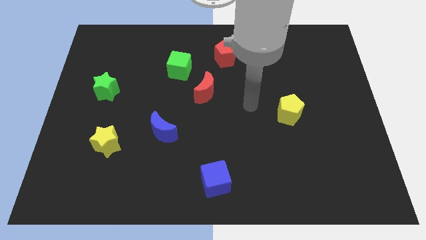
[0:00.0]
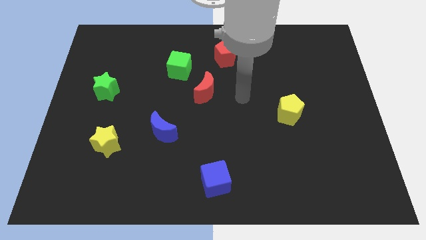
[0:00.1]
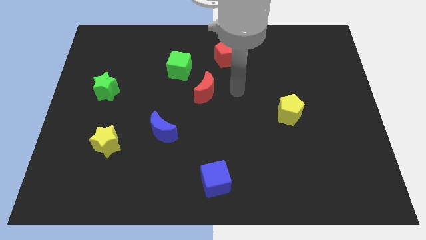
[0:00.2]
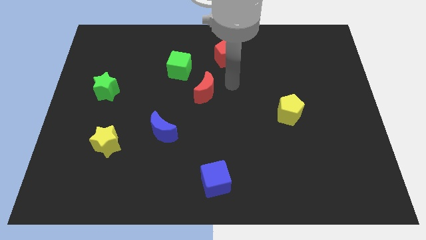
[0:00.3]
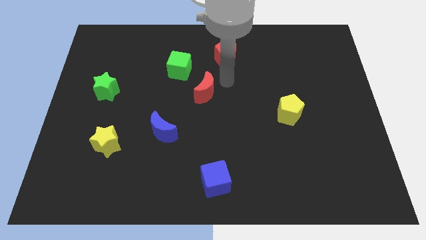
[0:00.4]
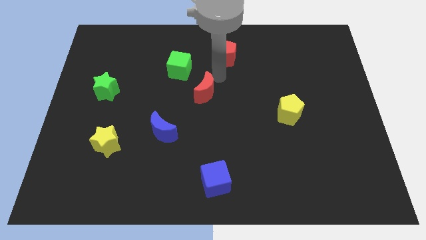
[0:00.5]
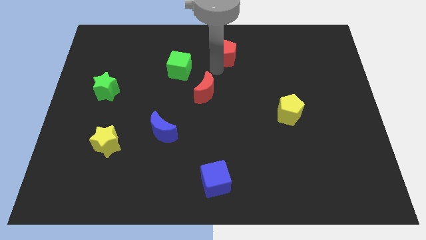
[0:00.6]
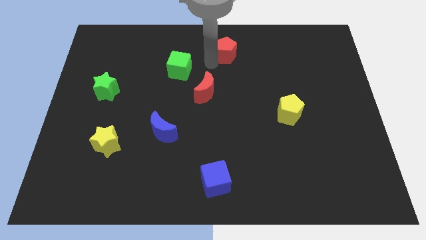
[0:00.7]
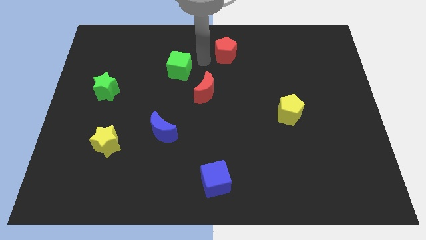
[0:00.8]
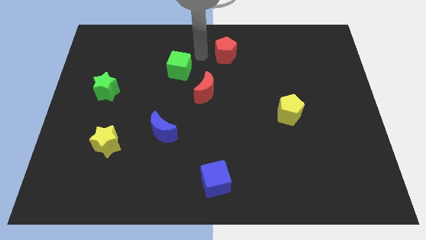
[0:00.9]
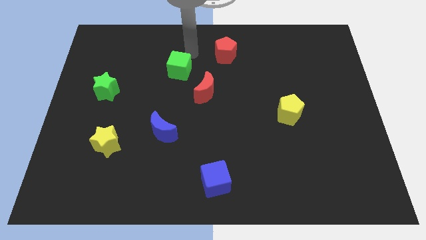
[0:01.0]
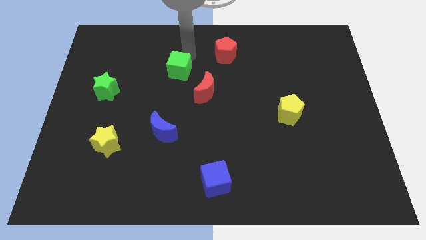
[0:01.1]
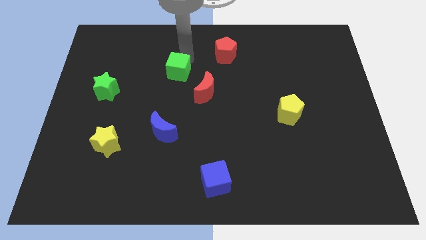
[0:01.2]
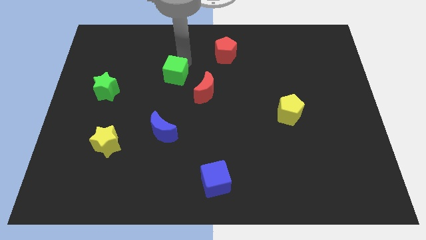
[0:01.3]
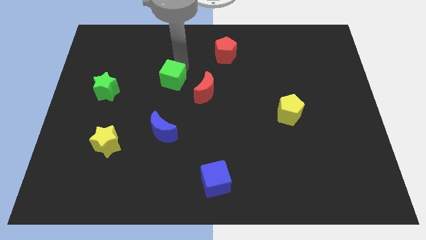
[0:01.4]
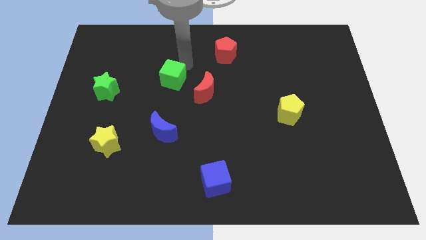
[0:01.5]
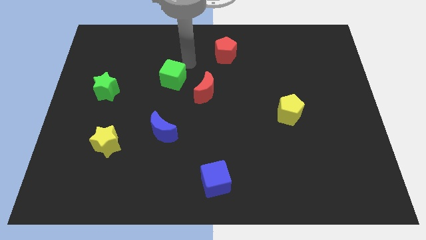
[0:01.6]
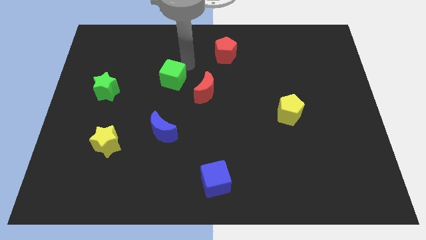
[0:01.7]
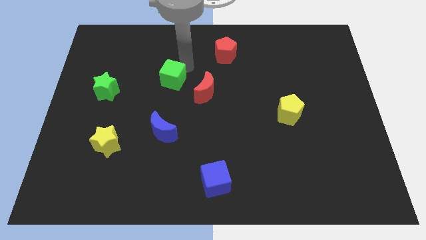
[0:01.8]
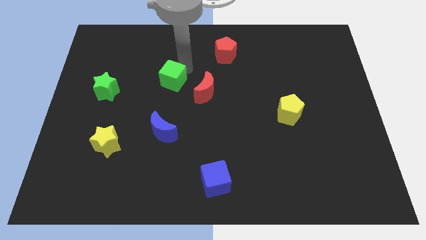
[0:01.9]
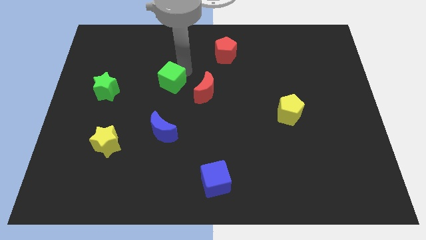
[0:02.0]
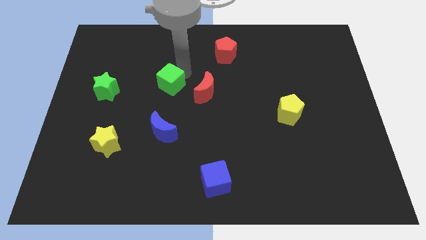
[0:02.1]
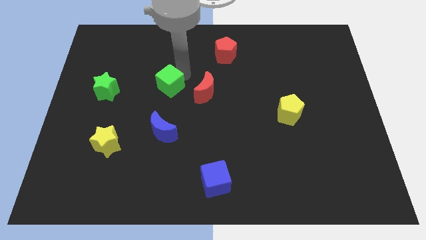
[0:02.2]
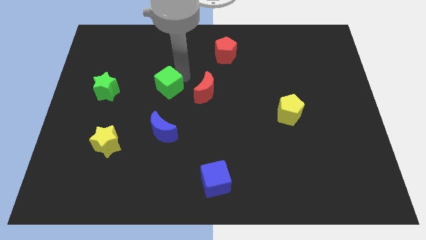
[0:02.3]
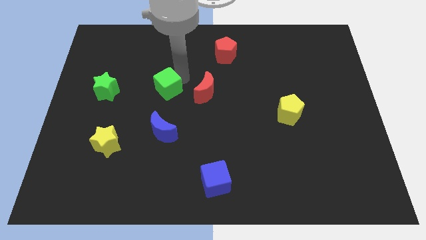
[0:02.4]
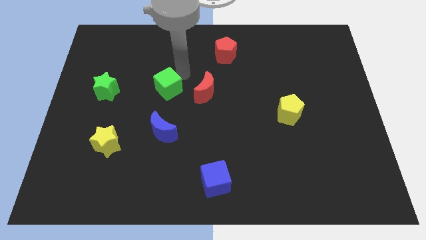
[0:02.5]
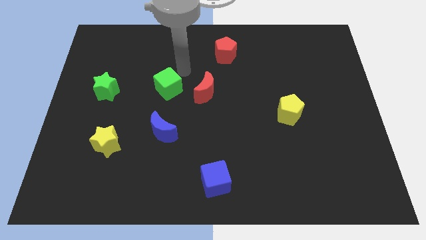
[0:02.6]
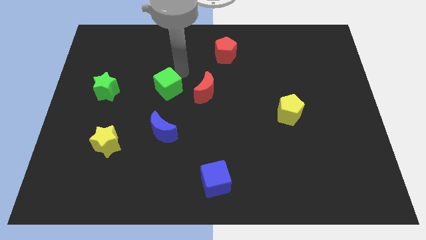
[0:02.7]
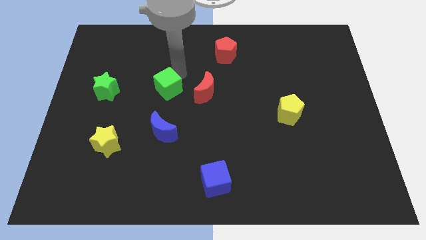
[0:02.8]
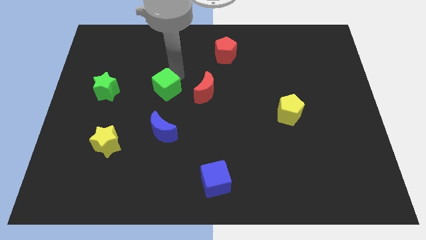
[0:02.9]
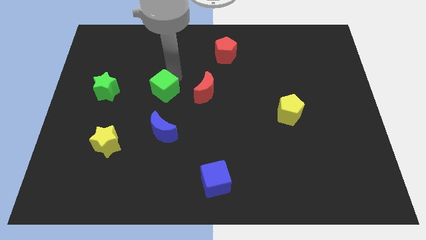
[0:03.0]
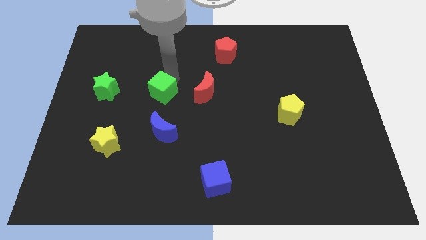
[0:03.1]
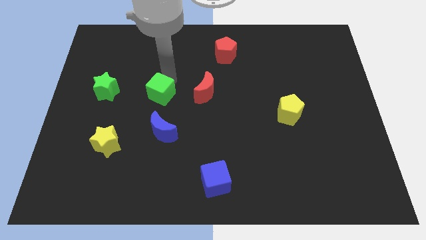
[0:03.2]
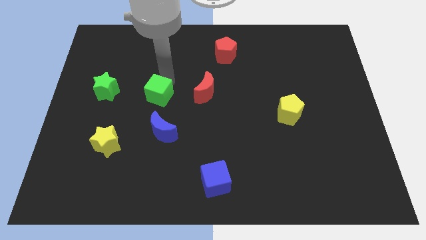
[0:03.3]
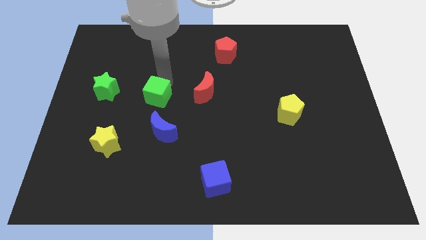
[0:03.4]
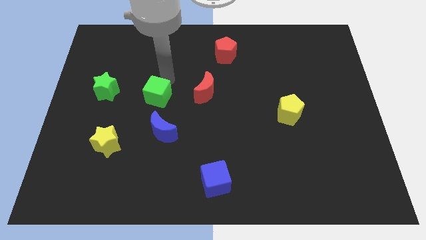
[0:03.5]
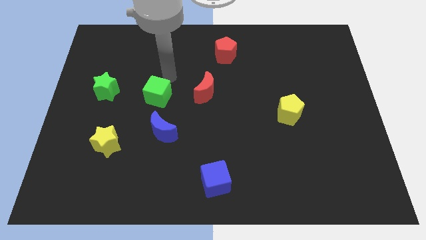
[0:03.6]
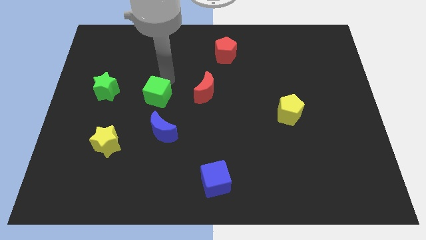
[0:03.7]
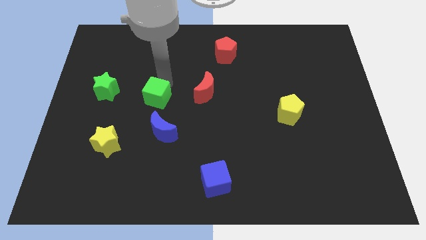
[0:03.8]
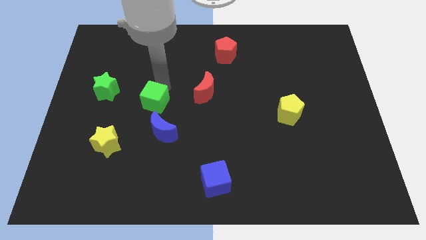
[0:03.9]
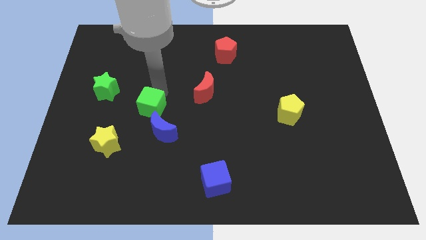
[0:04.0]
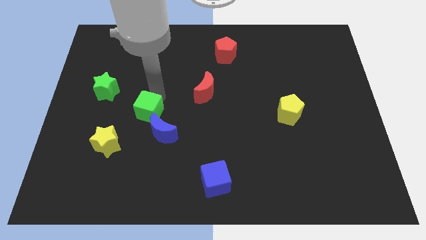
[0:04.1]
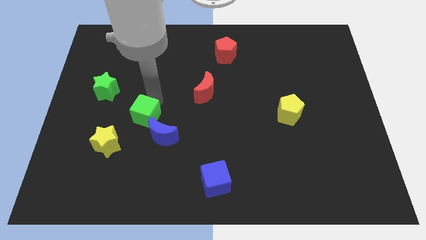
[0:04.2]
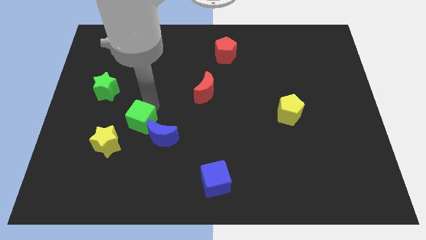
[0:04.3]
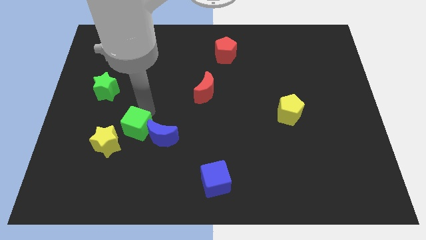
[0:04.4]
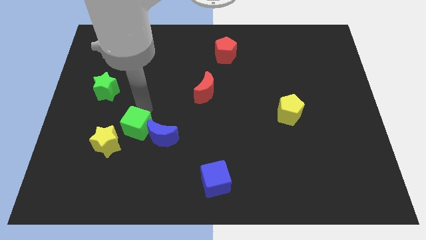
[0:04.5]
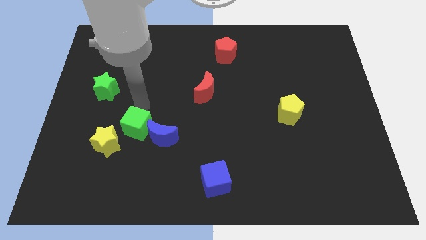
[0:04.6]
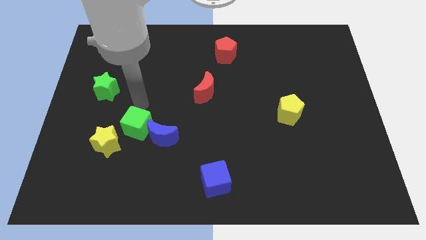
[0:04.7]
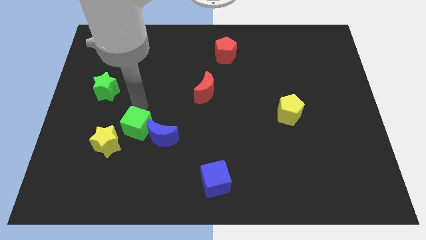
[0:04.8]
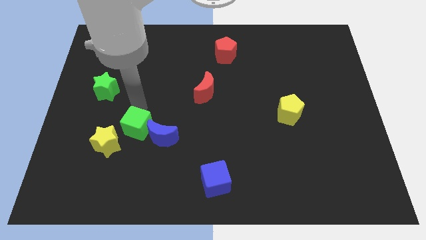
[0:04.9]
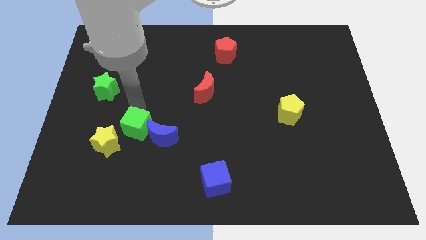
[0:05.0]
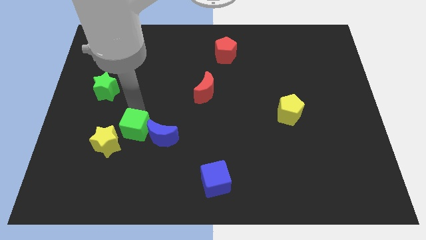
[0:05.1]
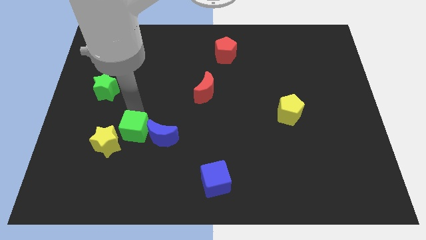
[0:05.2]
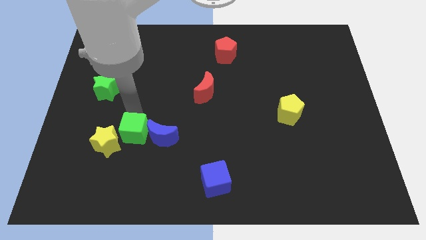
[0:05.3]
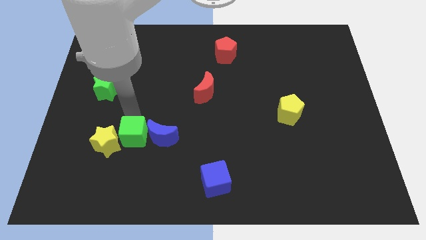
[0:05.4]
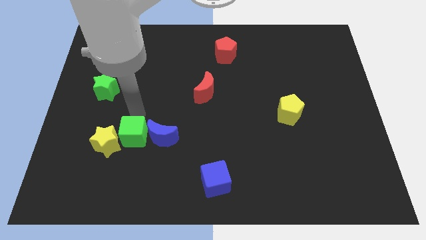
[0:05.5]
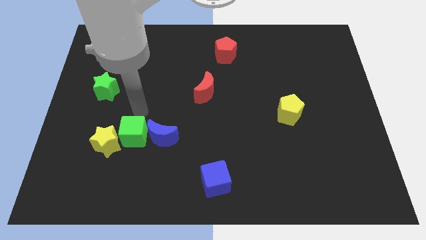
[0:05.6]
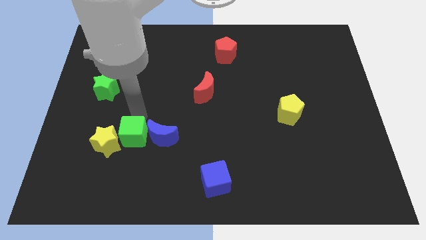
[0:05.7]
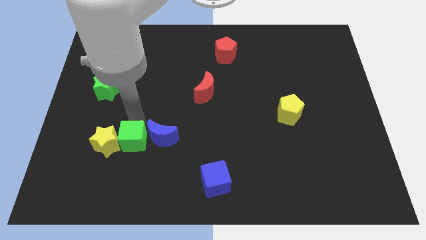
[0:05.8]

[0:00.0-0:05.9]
move the green cube to the bottom right of the yellow star

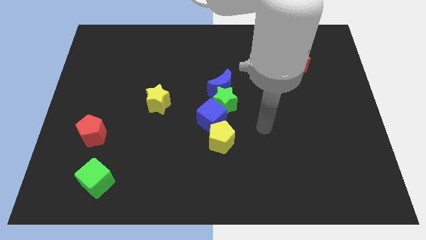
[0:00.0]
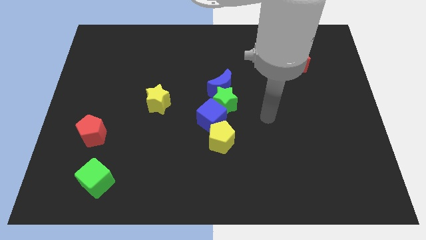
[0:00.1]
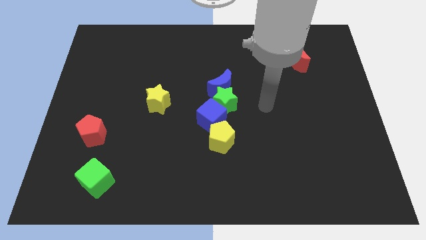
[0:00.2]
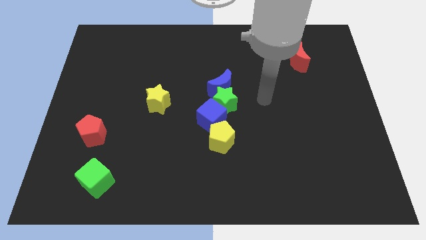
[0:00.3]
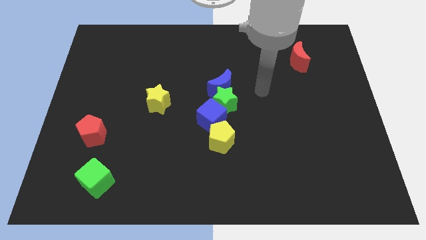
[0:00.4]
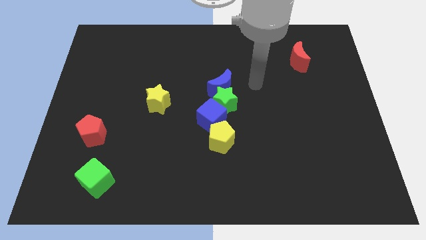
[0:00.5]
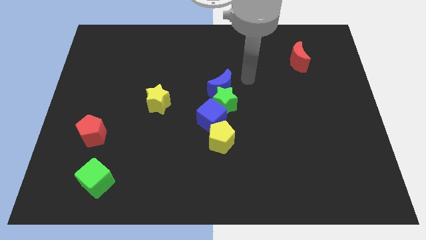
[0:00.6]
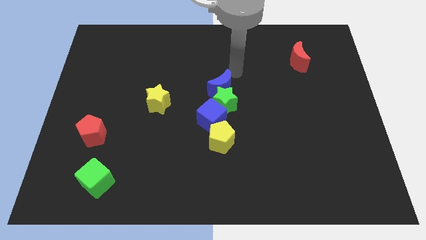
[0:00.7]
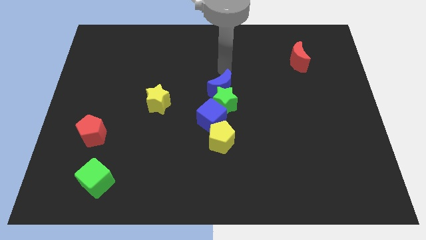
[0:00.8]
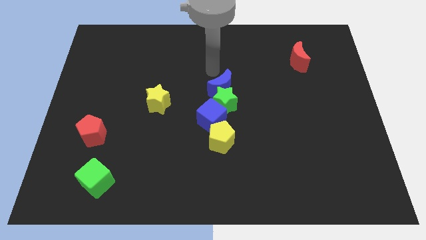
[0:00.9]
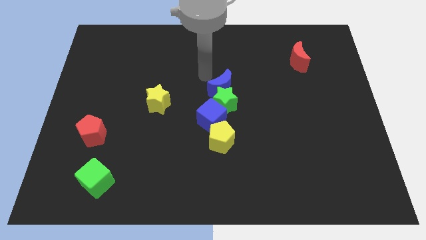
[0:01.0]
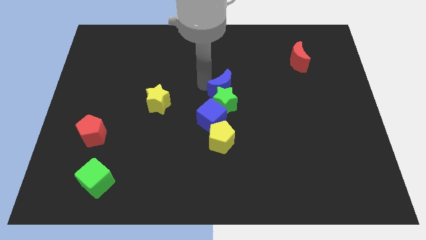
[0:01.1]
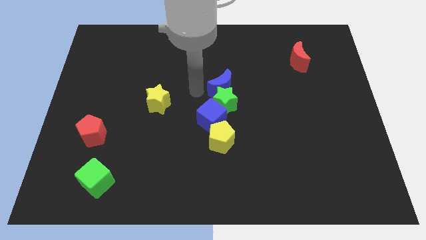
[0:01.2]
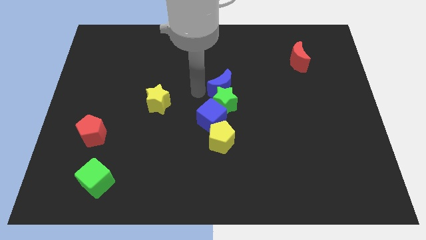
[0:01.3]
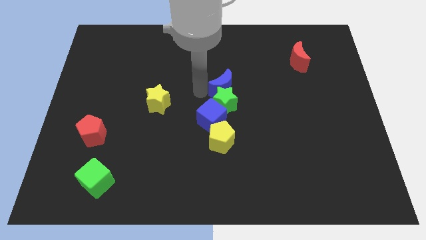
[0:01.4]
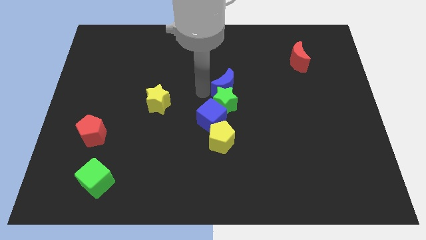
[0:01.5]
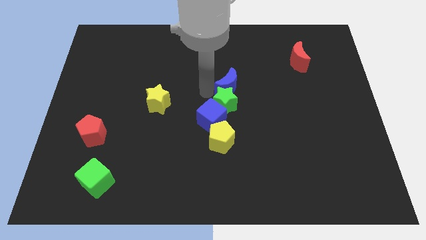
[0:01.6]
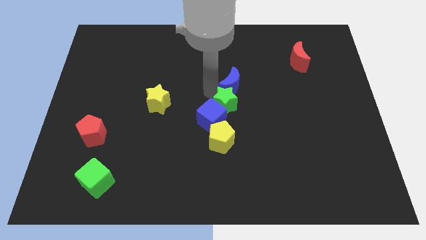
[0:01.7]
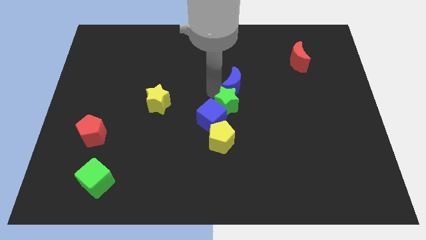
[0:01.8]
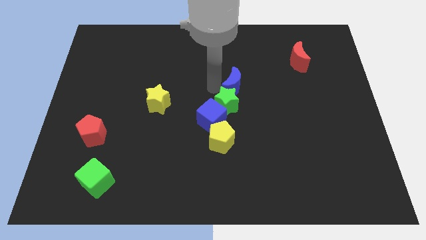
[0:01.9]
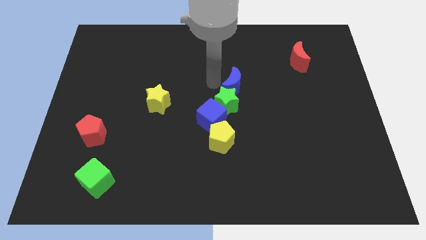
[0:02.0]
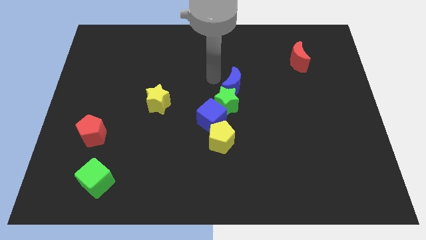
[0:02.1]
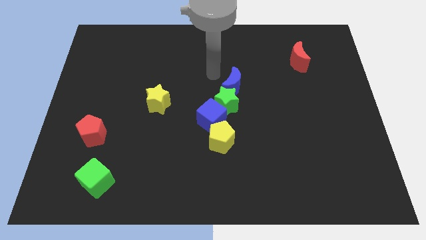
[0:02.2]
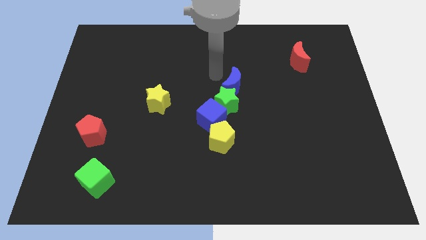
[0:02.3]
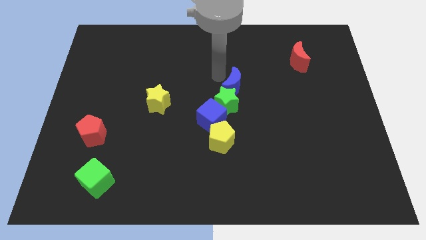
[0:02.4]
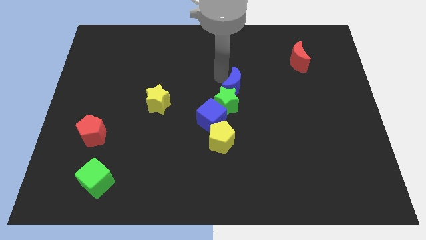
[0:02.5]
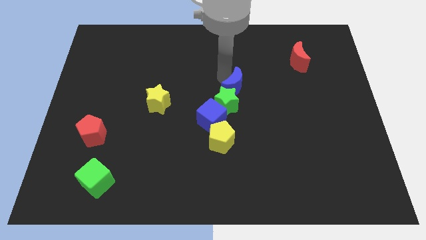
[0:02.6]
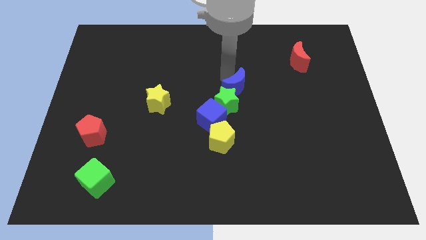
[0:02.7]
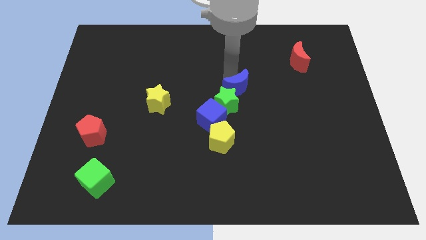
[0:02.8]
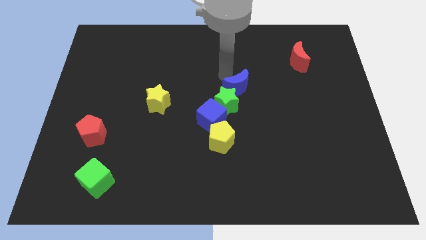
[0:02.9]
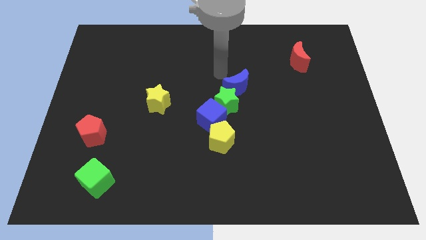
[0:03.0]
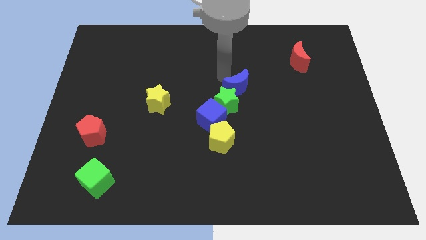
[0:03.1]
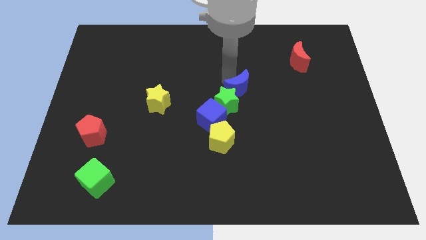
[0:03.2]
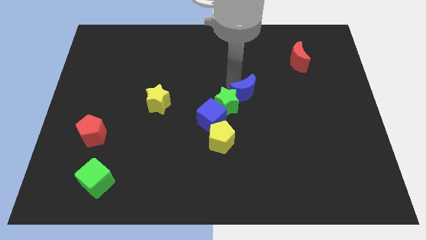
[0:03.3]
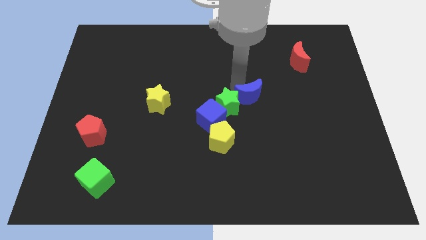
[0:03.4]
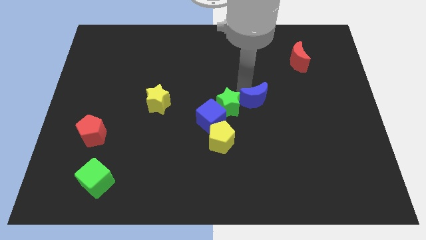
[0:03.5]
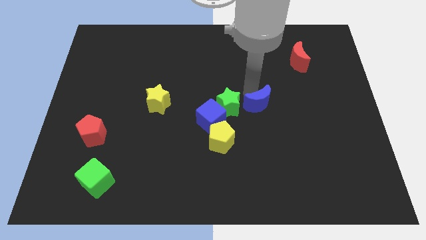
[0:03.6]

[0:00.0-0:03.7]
push the blue moon to the right side of the blue cube
